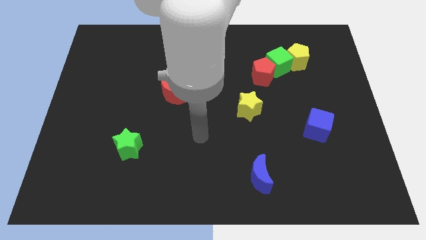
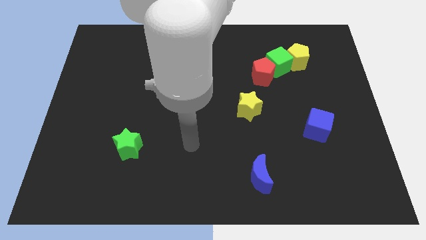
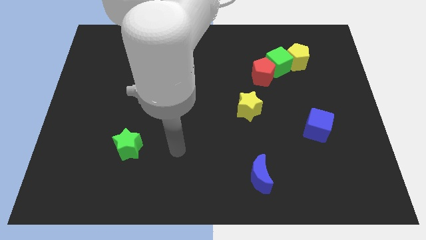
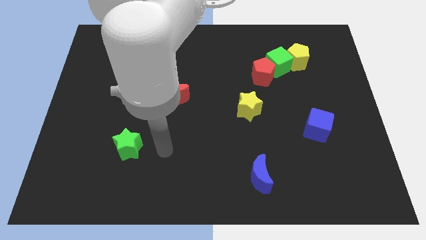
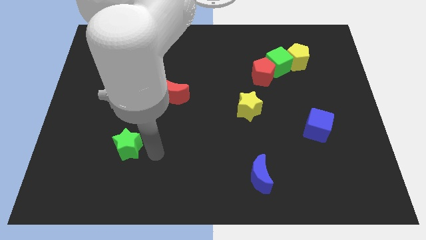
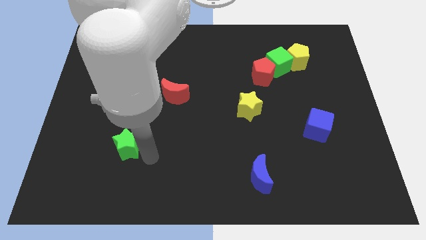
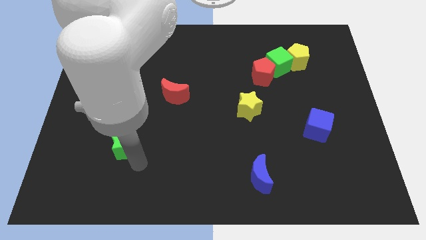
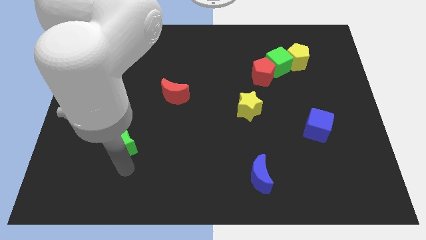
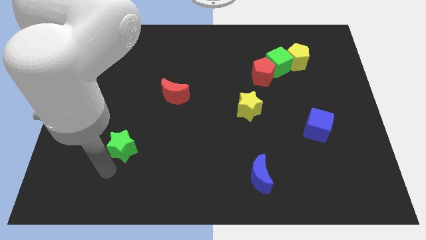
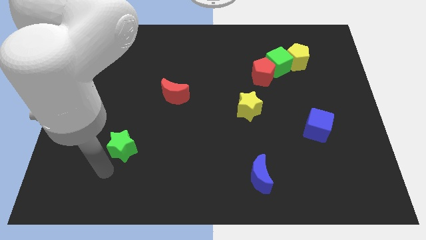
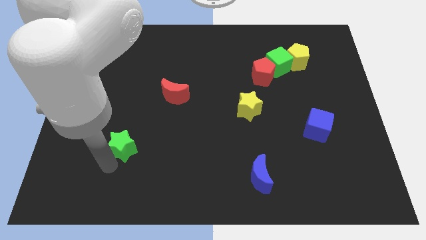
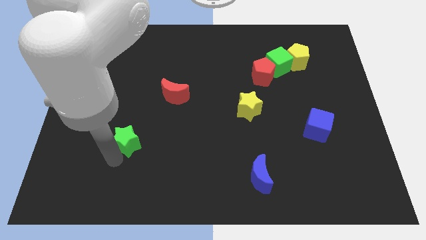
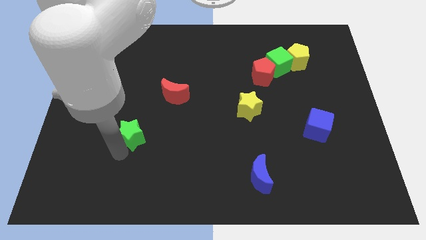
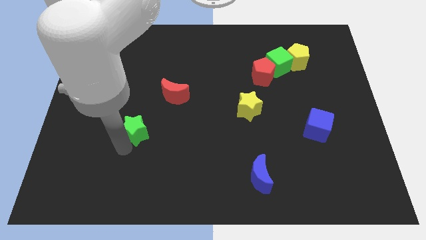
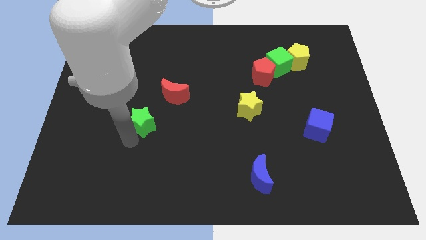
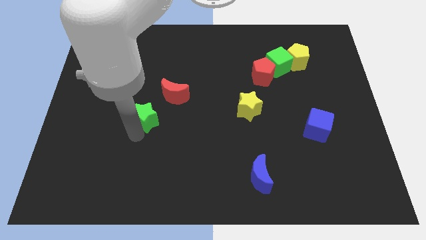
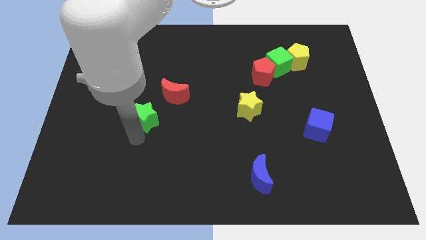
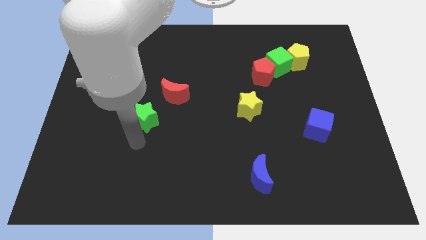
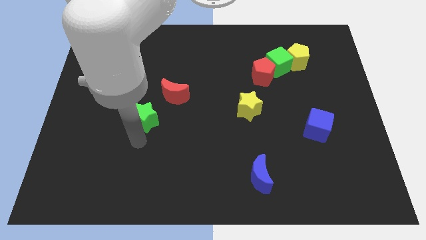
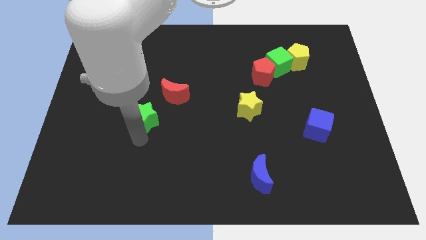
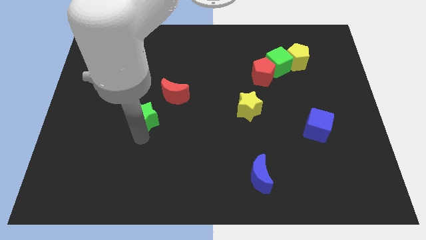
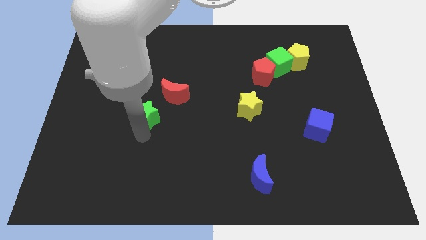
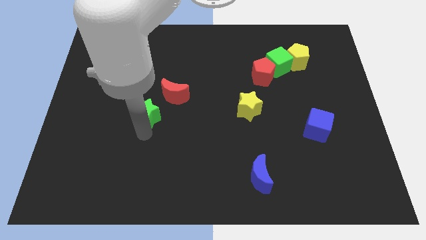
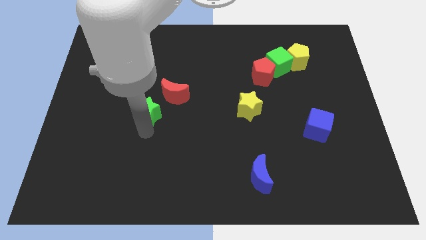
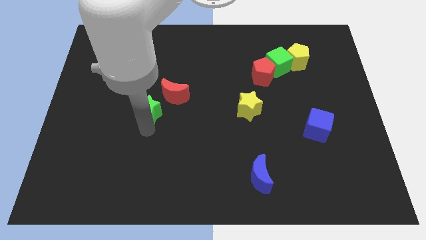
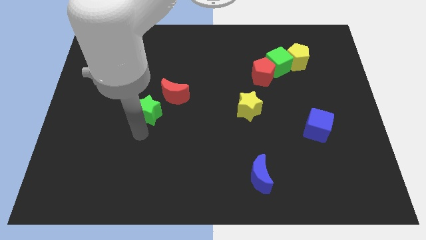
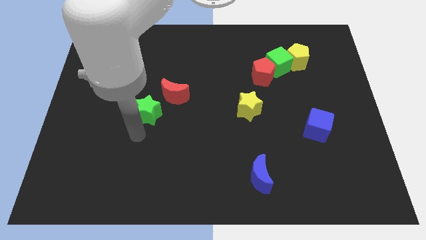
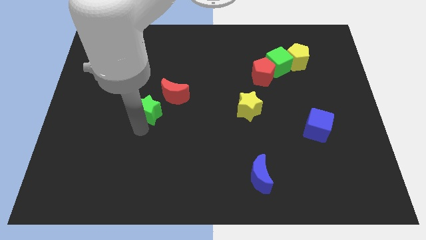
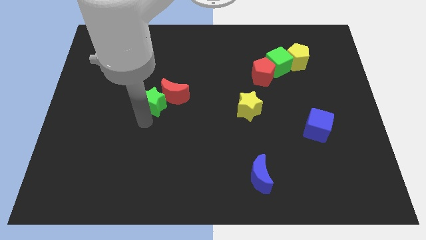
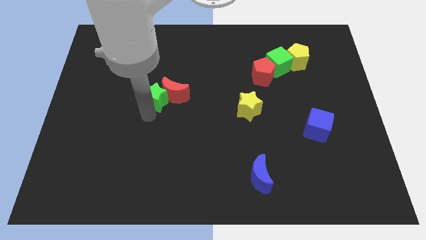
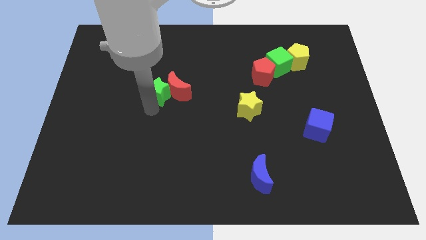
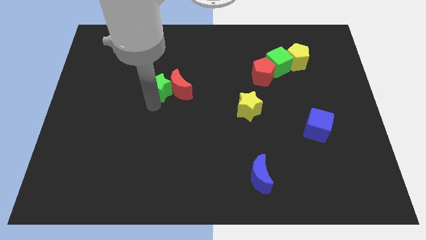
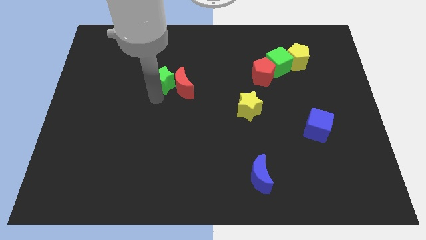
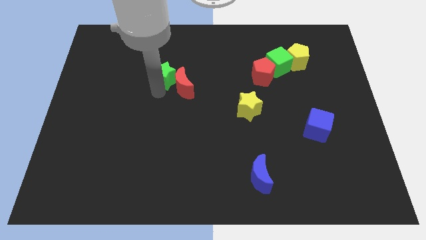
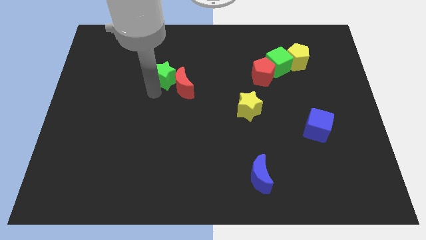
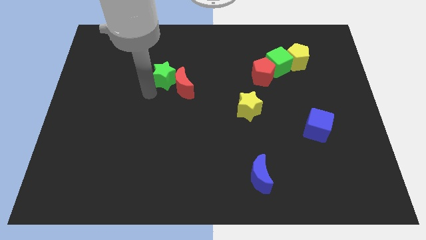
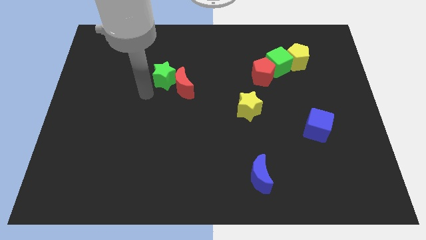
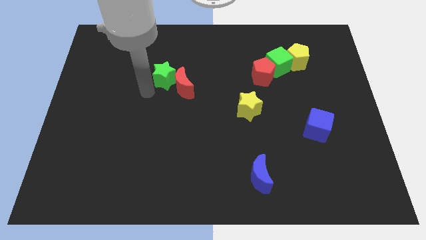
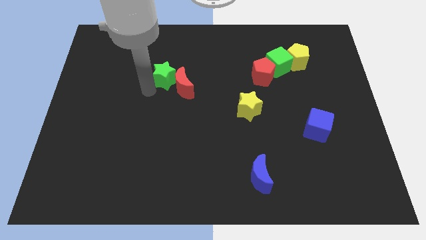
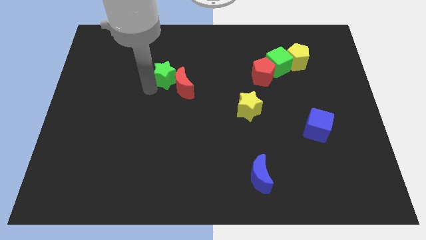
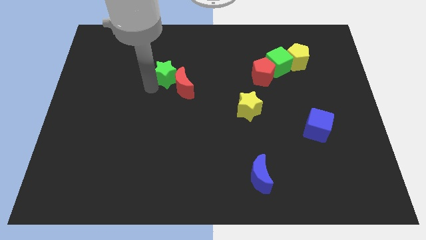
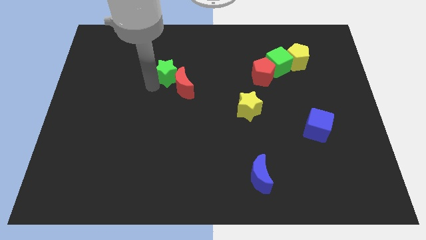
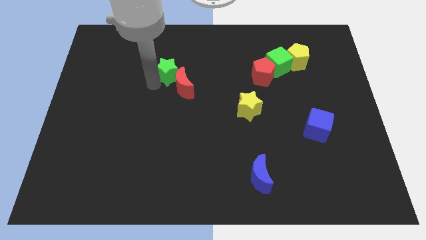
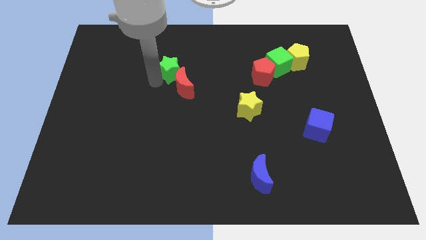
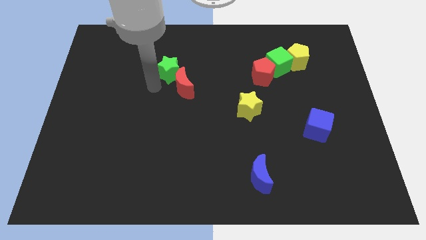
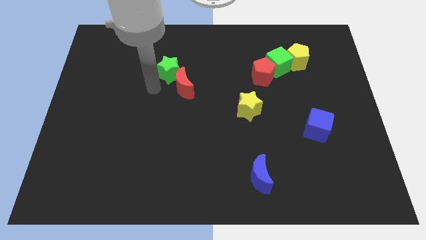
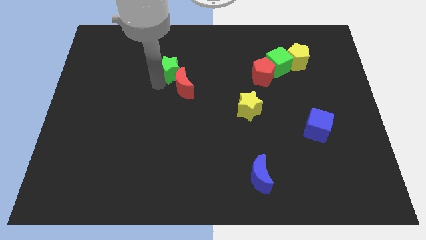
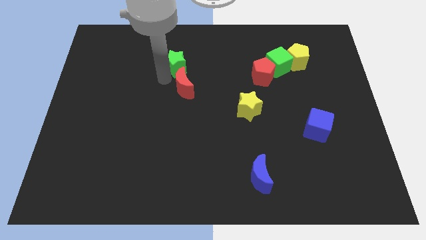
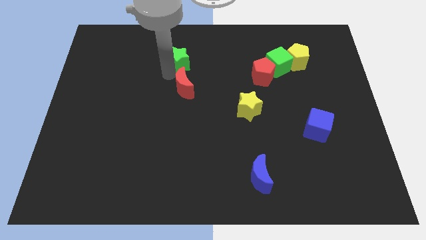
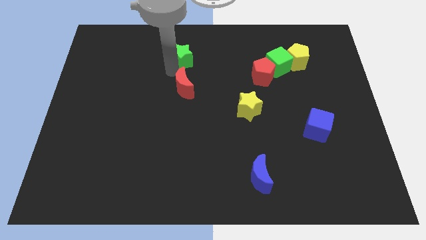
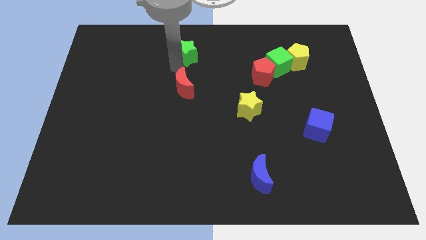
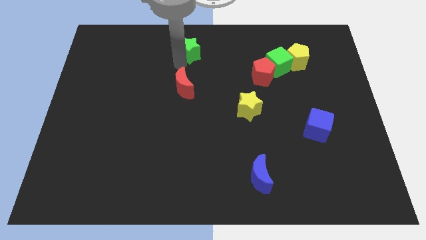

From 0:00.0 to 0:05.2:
move the green star to the top side

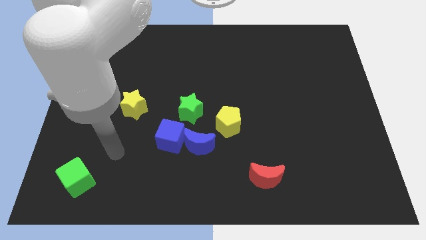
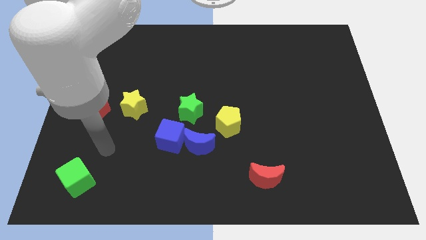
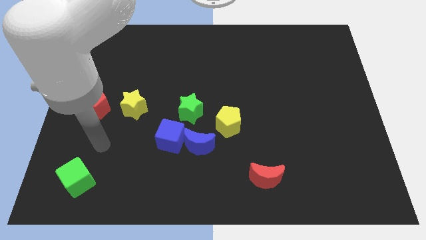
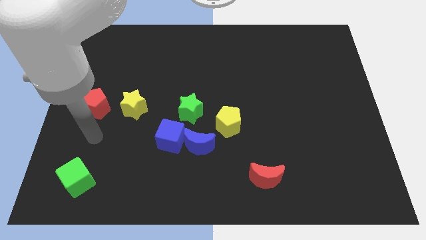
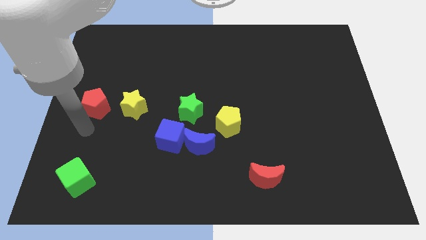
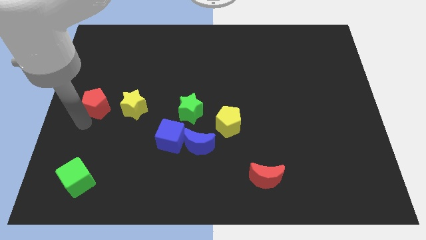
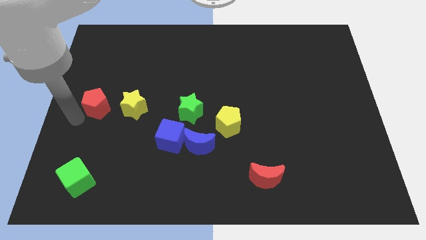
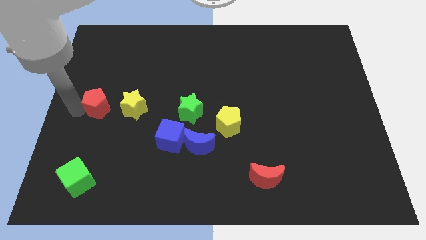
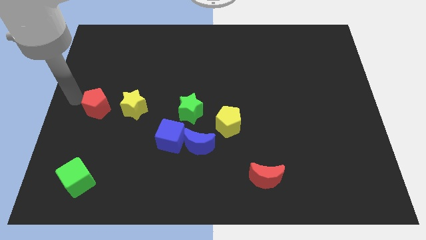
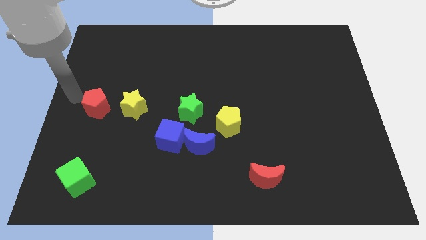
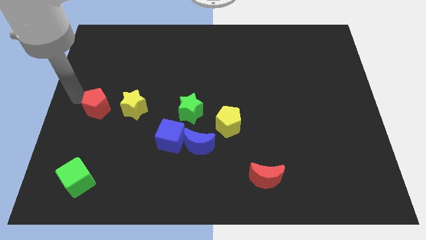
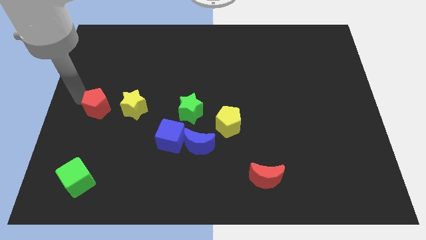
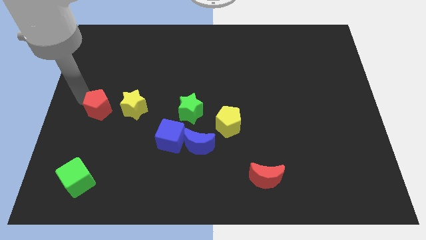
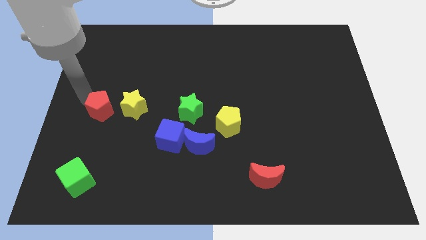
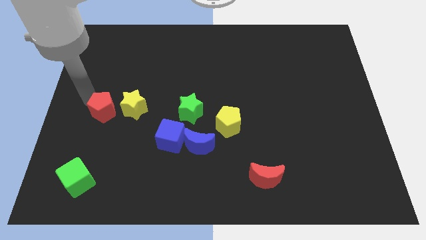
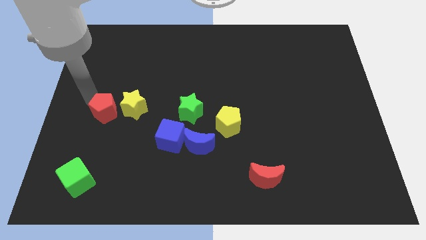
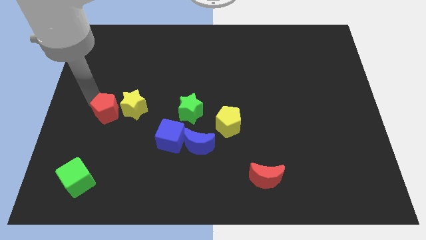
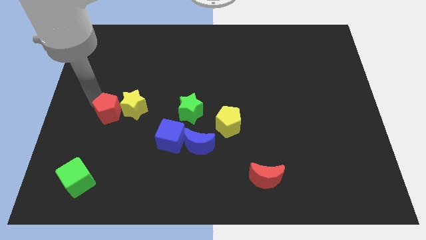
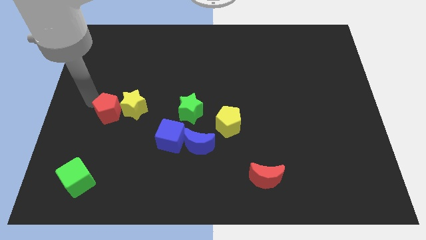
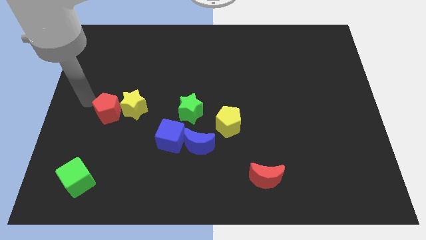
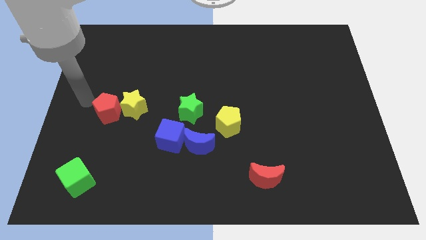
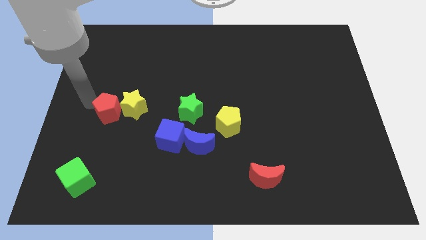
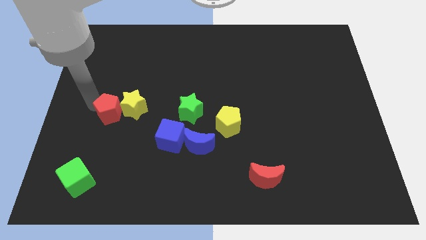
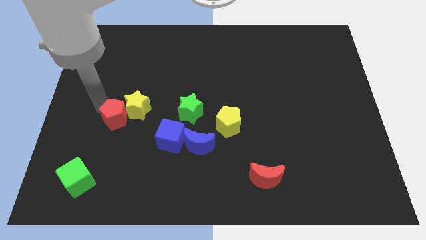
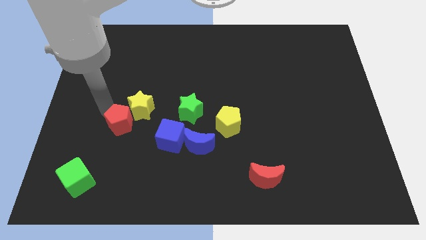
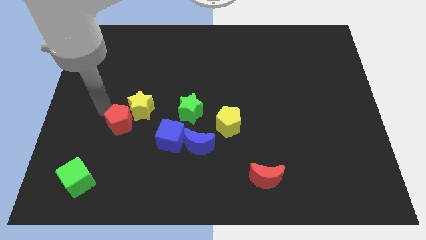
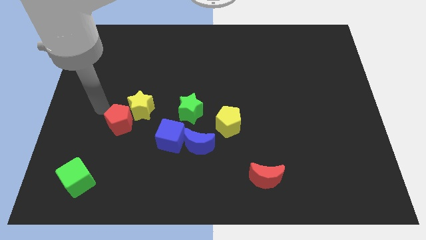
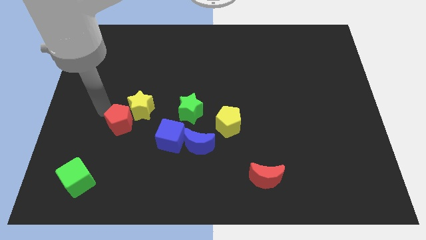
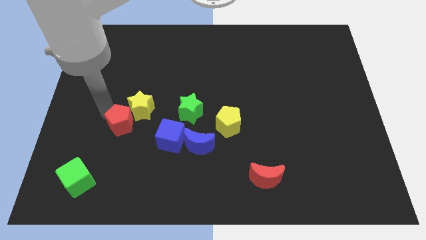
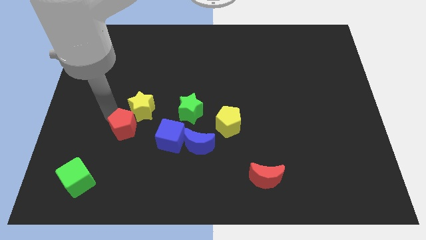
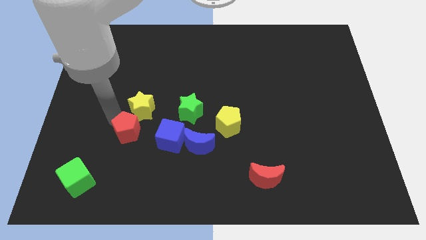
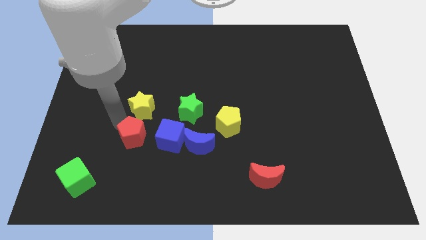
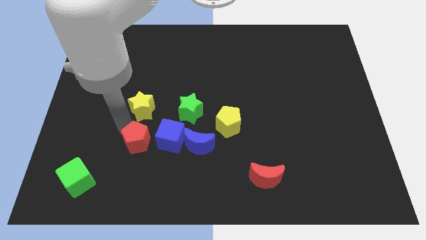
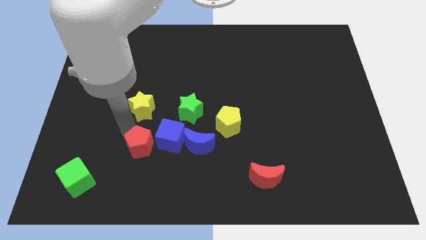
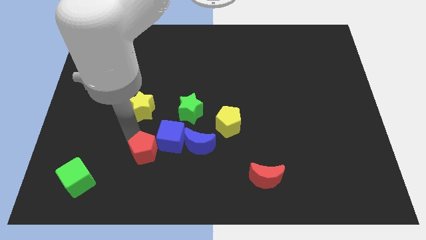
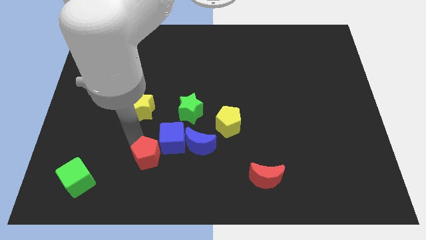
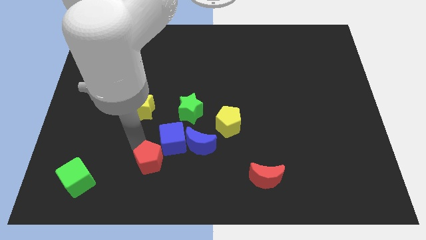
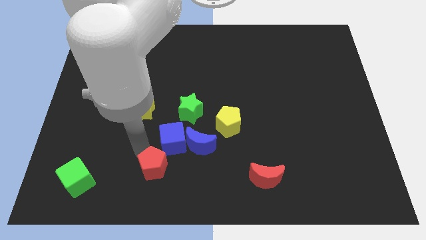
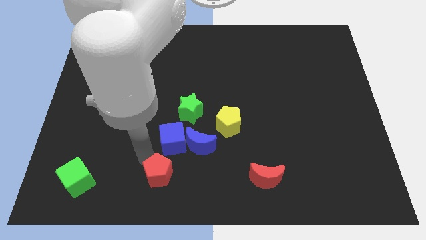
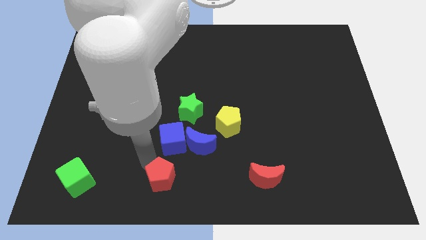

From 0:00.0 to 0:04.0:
push the red pentagon to the bottom side
